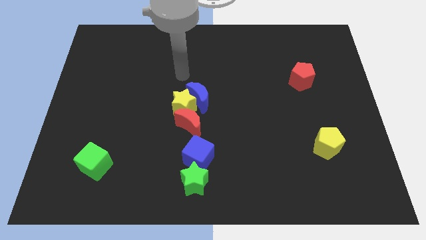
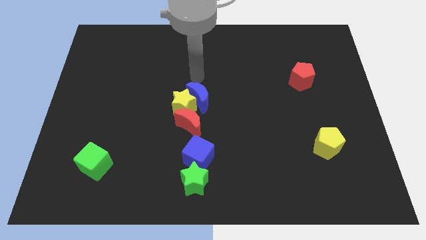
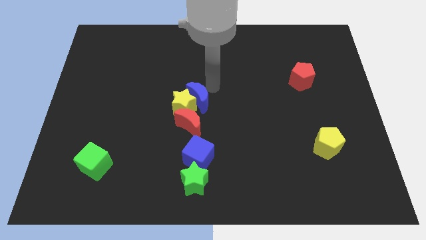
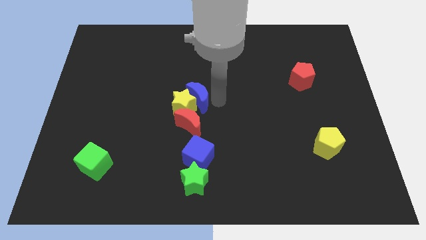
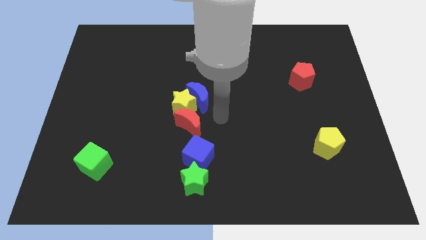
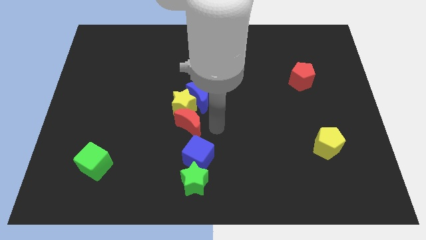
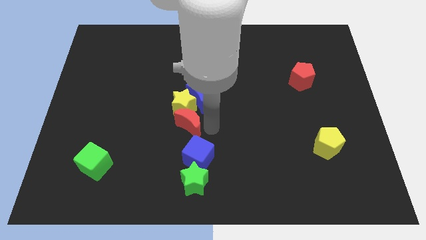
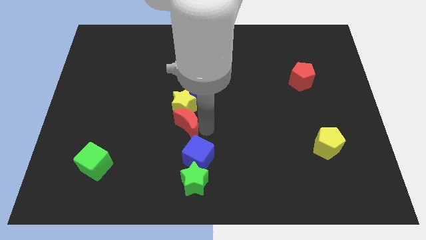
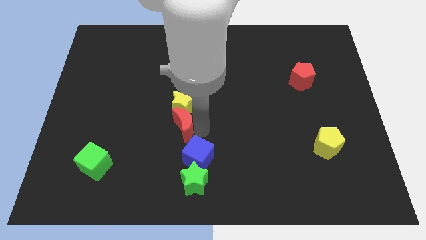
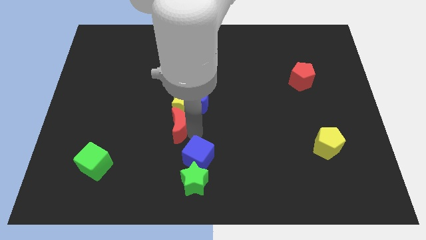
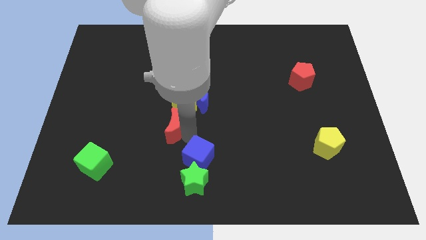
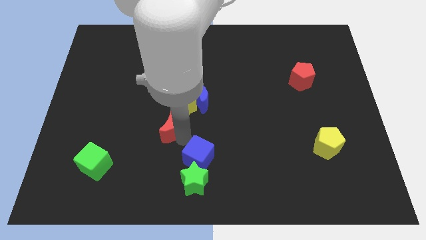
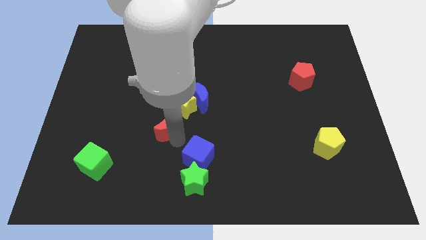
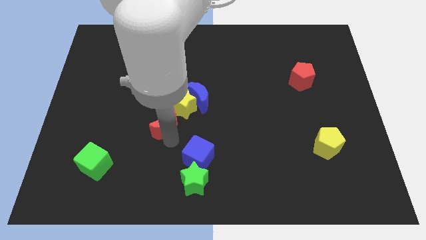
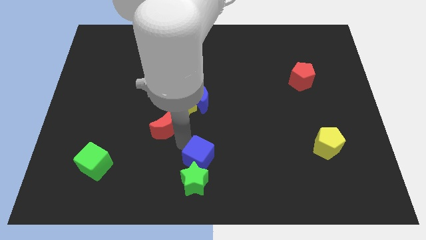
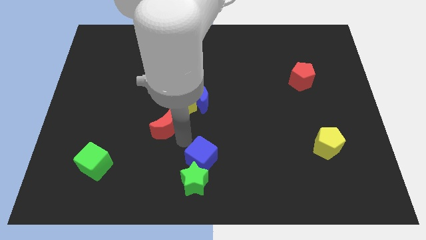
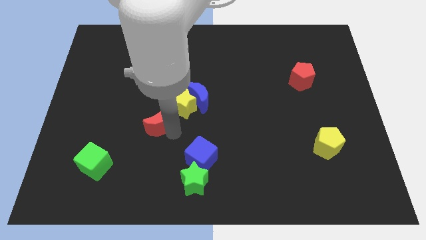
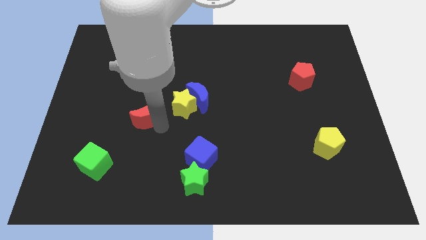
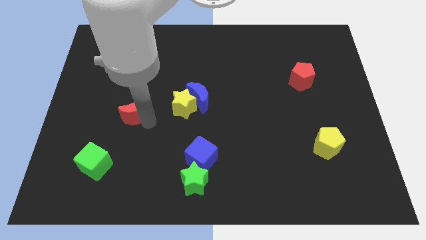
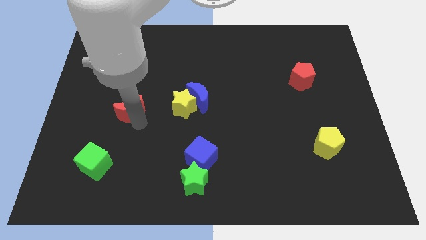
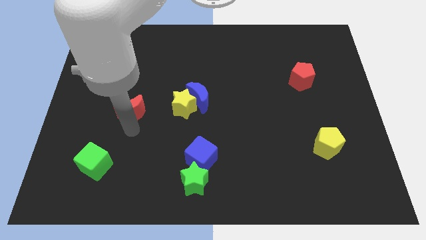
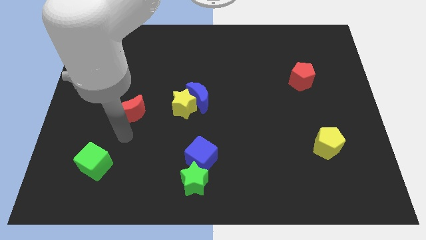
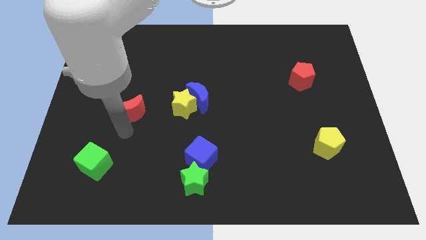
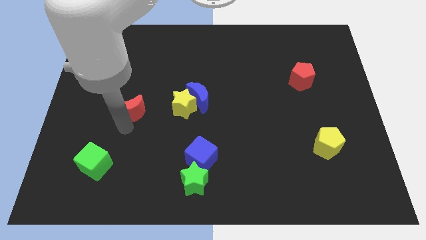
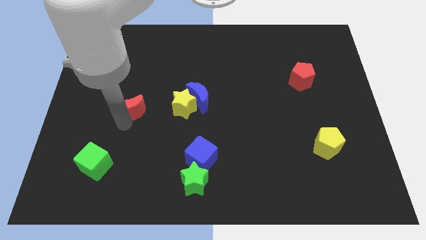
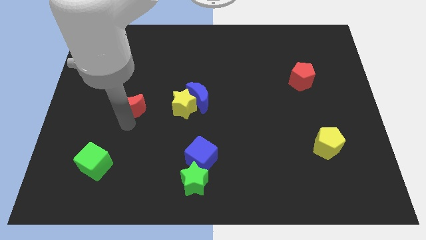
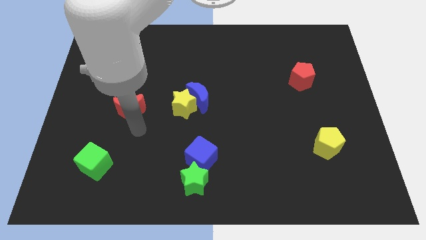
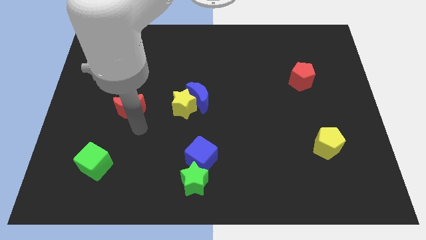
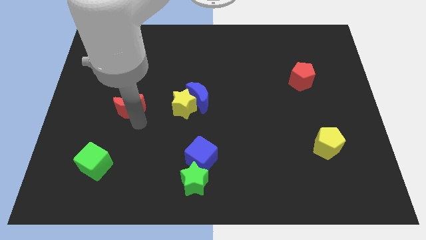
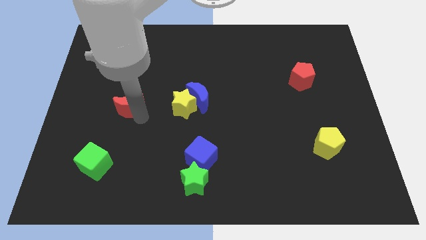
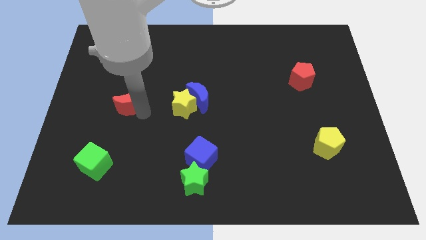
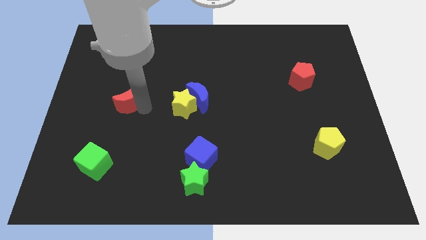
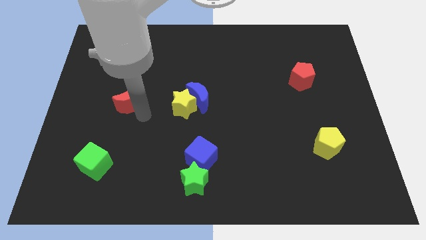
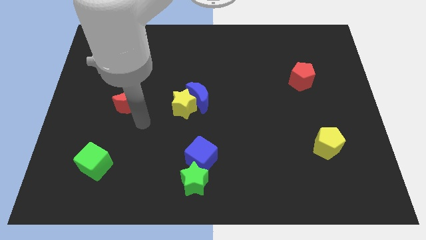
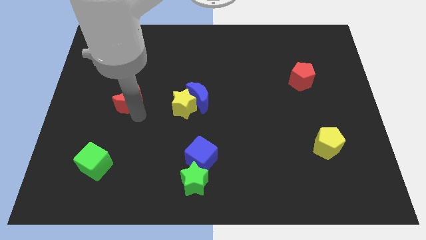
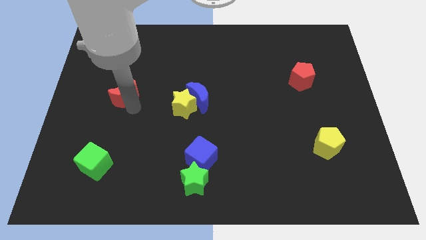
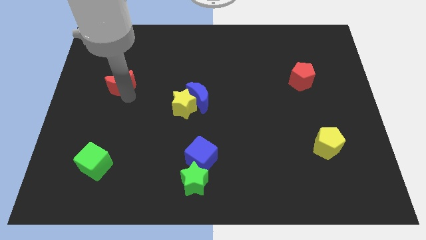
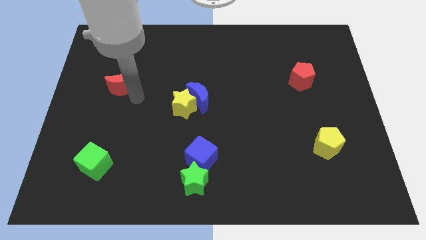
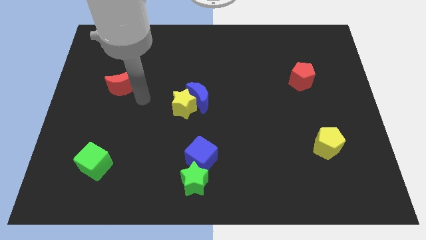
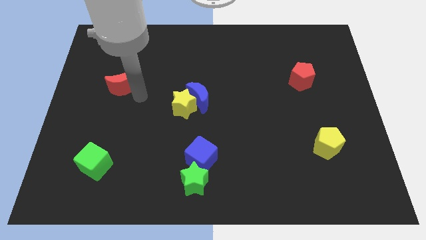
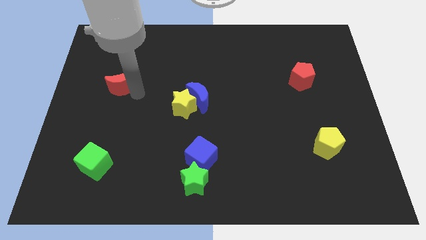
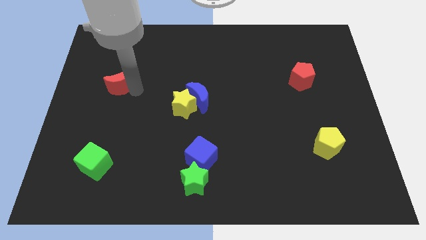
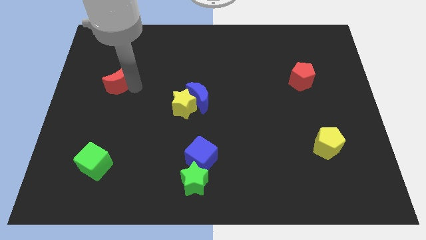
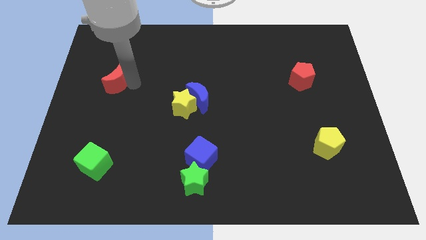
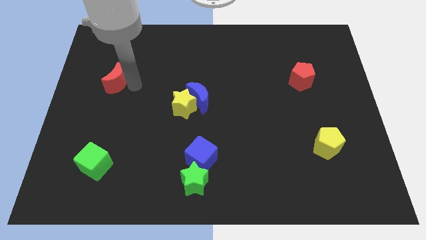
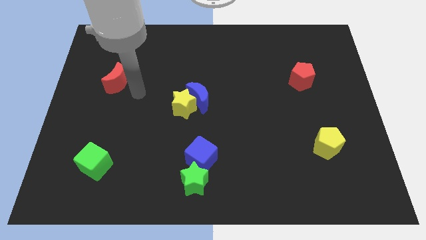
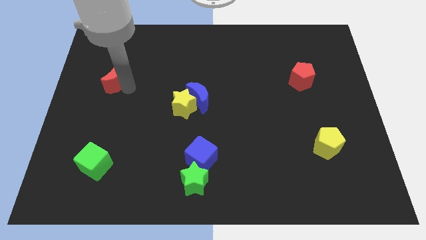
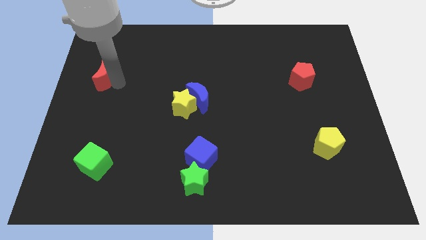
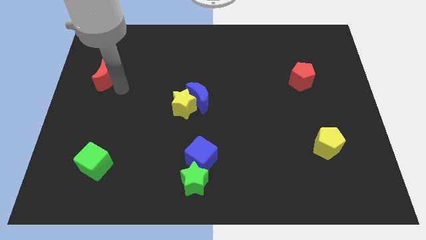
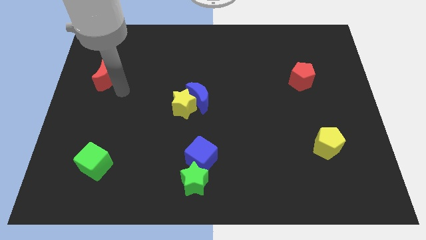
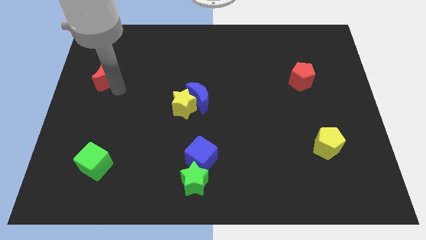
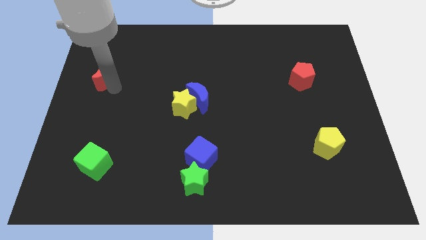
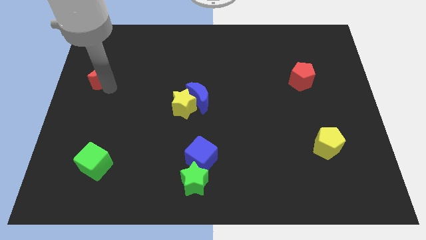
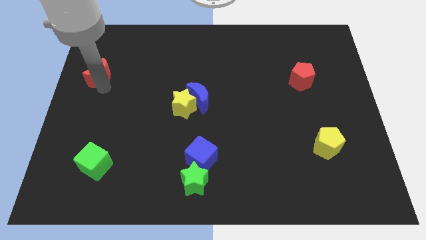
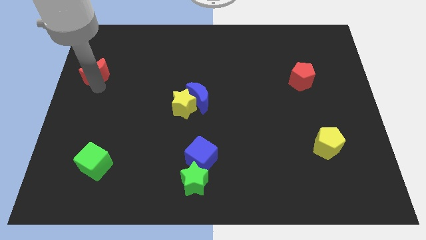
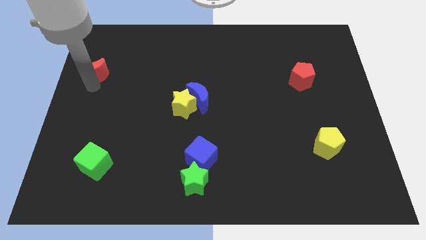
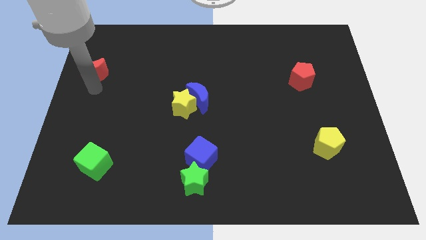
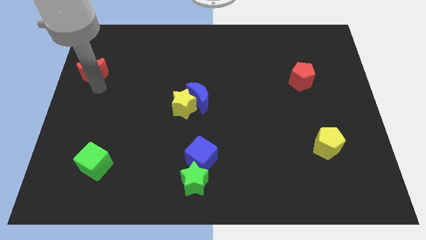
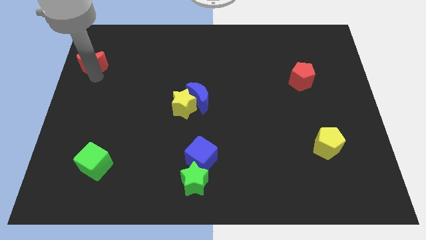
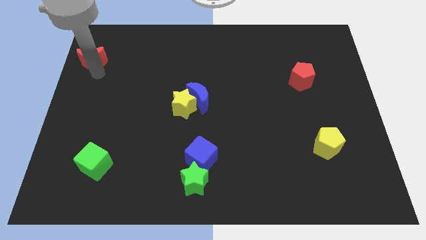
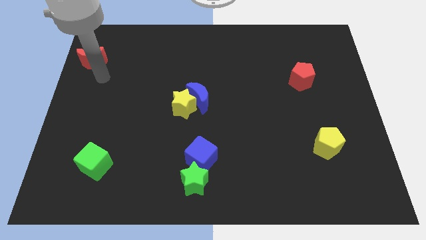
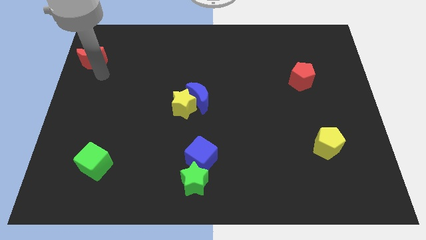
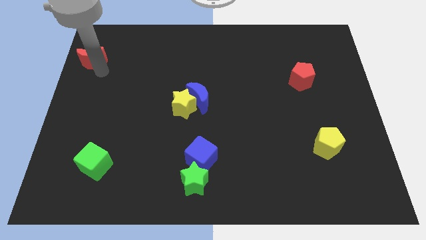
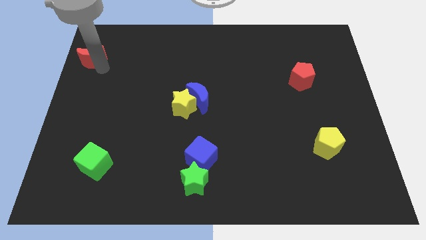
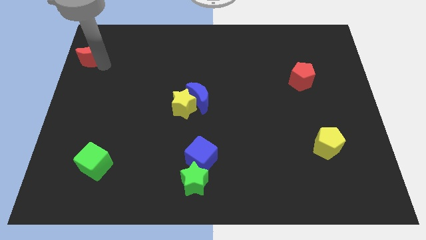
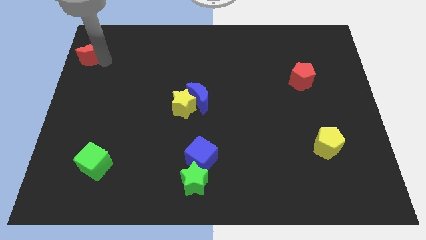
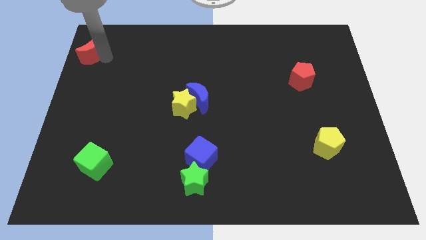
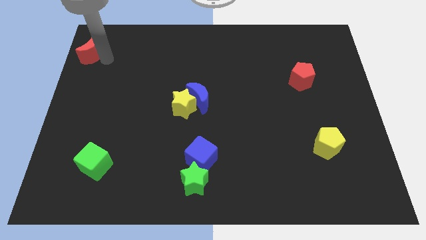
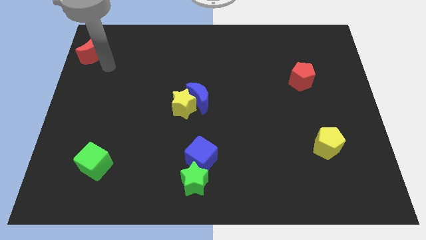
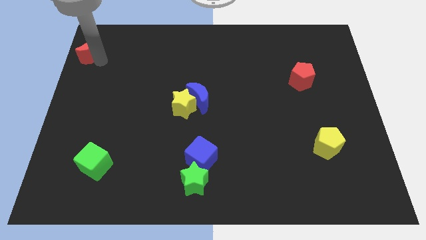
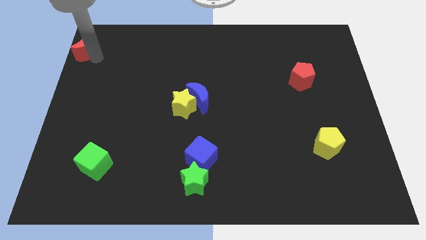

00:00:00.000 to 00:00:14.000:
put the red moon to the upper left corner
